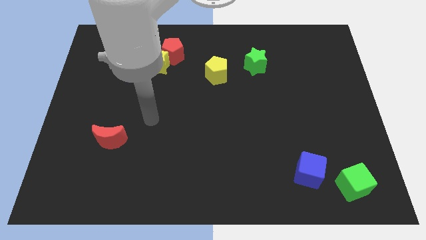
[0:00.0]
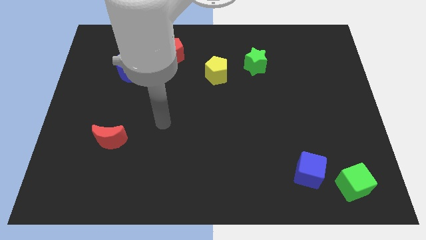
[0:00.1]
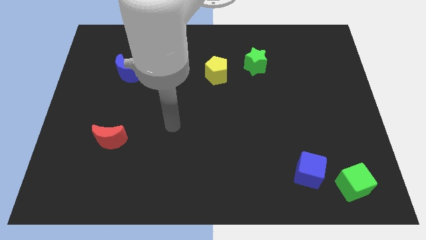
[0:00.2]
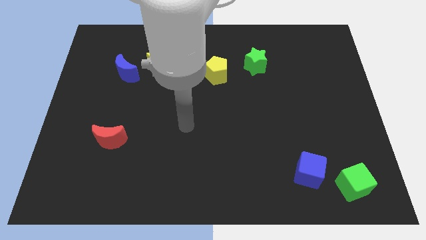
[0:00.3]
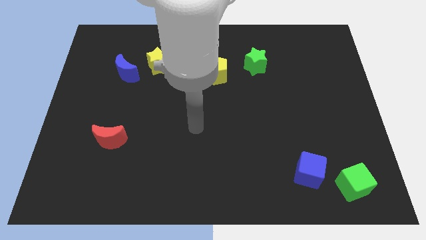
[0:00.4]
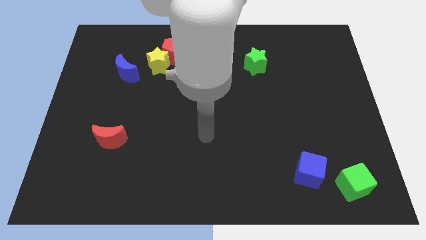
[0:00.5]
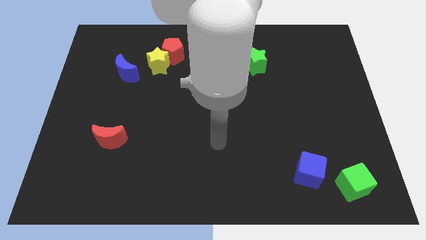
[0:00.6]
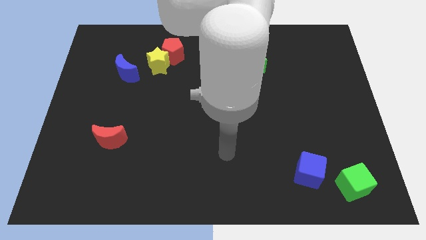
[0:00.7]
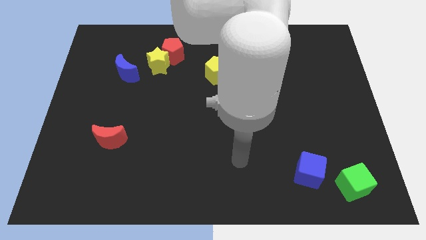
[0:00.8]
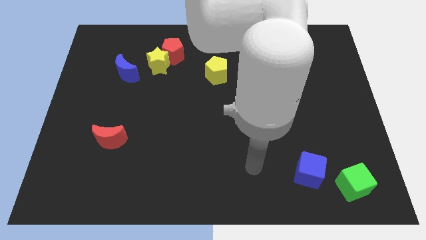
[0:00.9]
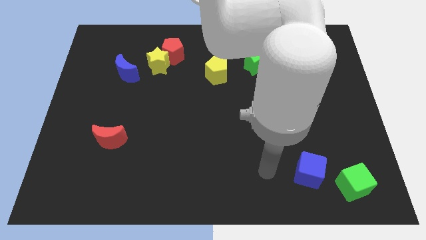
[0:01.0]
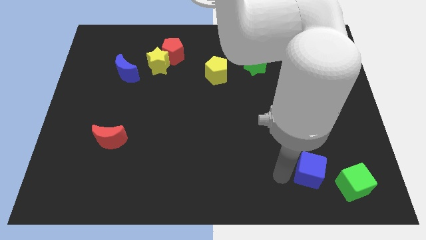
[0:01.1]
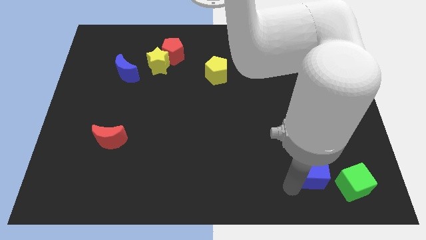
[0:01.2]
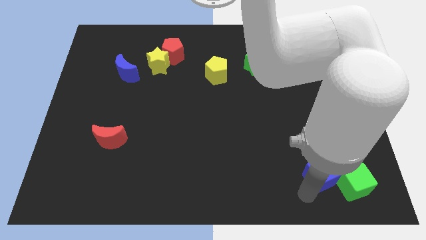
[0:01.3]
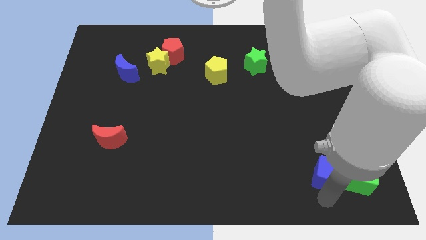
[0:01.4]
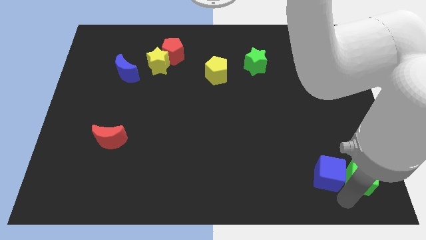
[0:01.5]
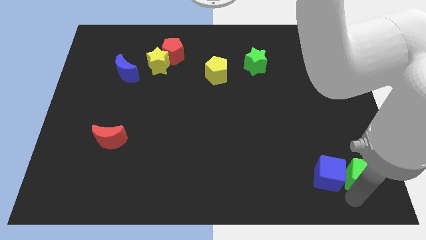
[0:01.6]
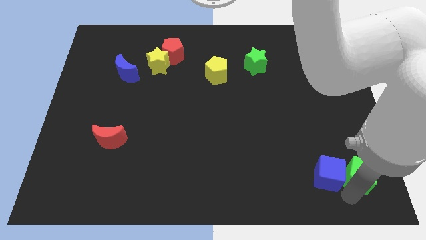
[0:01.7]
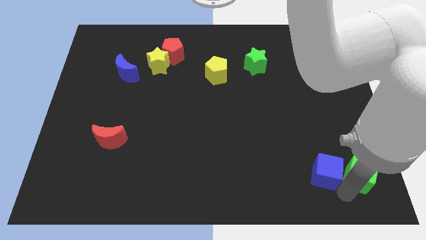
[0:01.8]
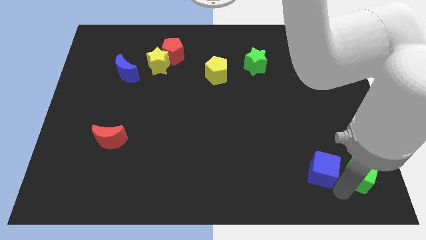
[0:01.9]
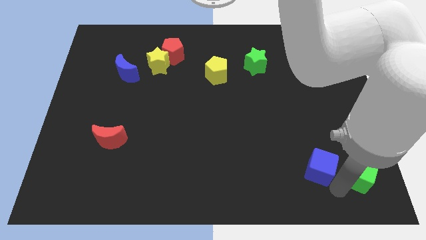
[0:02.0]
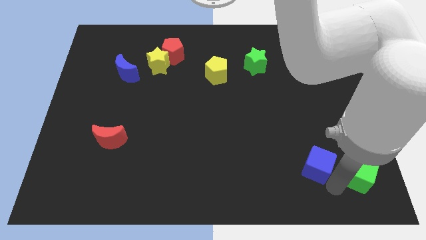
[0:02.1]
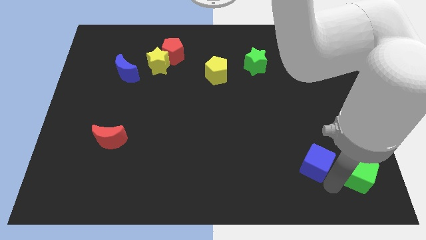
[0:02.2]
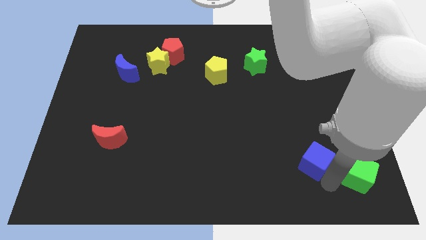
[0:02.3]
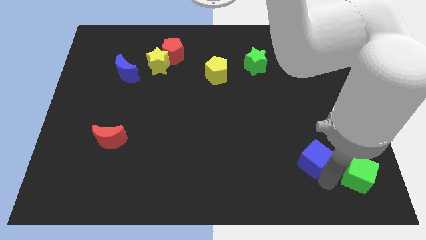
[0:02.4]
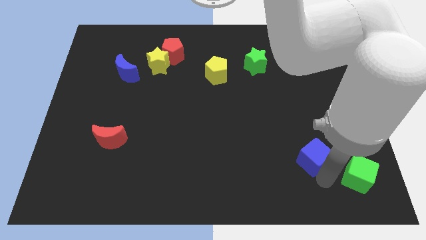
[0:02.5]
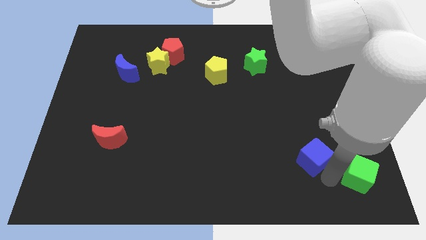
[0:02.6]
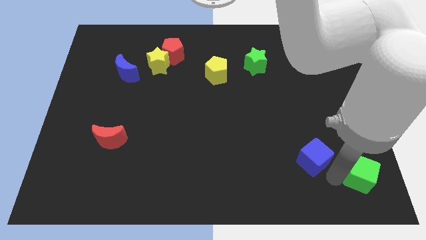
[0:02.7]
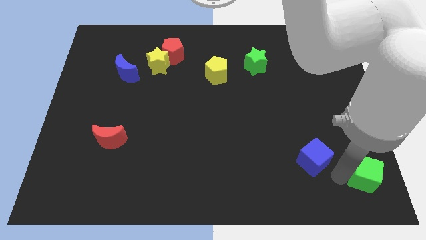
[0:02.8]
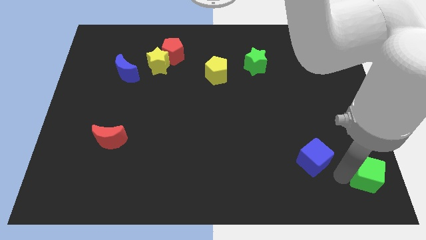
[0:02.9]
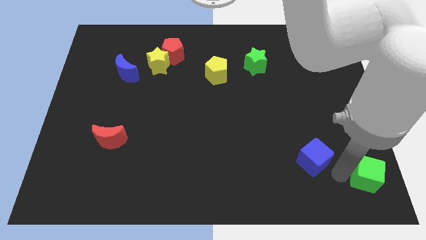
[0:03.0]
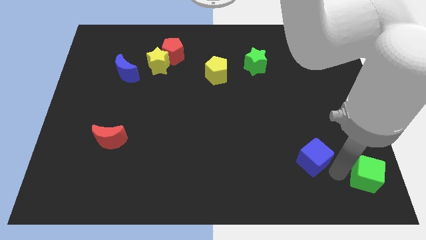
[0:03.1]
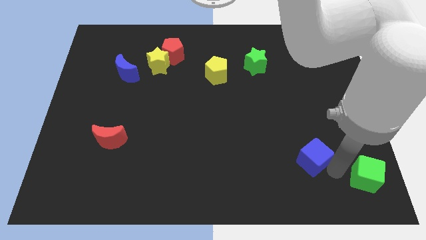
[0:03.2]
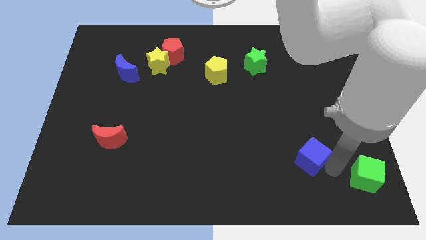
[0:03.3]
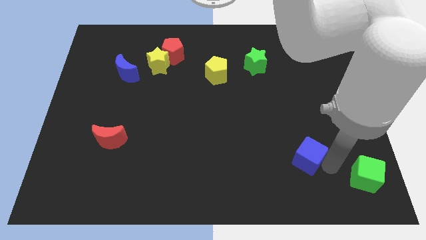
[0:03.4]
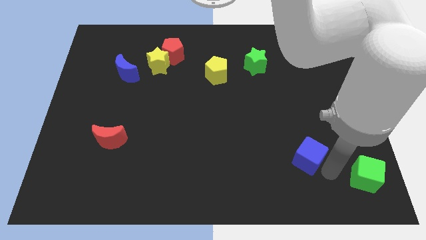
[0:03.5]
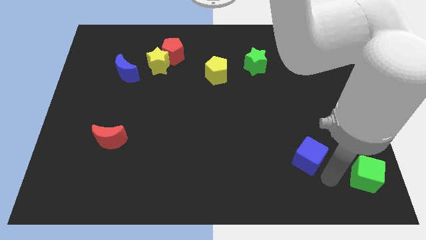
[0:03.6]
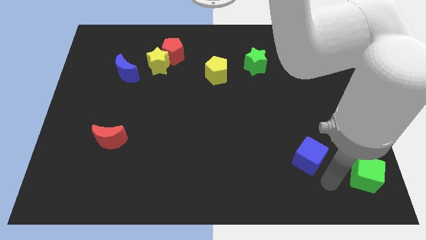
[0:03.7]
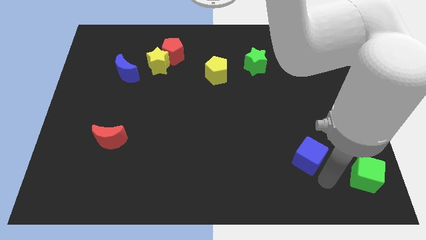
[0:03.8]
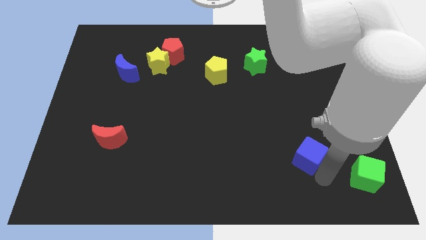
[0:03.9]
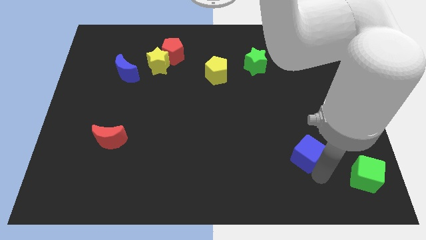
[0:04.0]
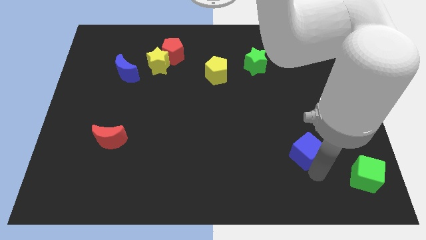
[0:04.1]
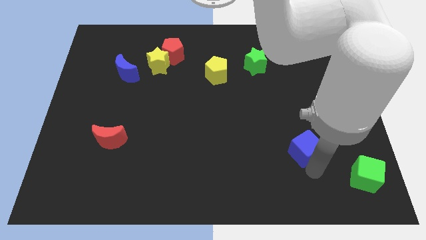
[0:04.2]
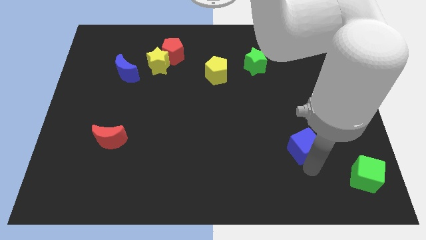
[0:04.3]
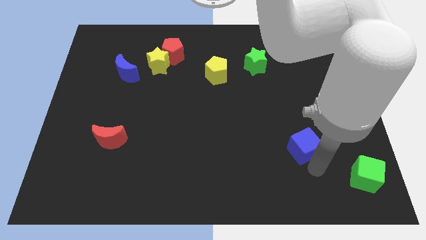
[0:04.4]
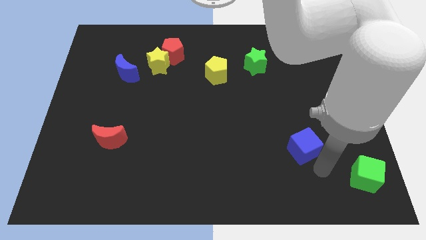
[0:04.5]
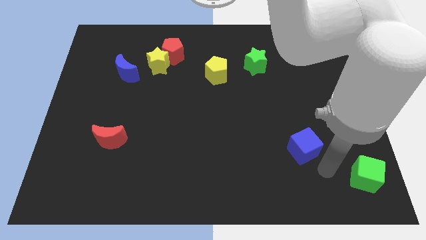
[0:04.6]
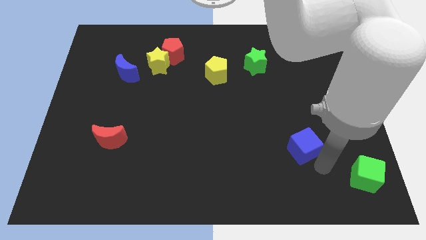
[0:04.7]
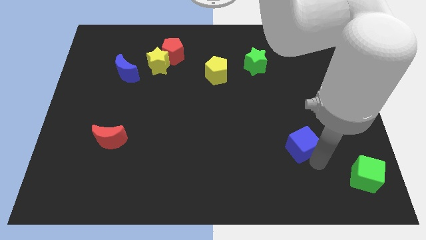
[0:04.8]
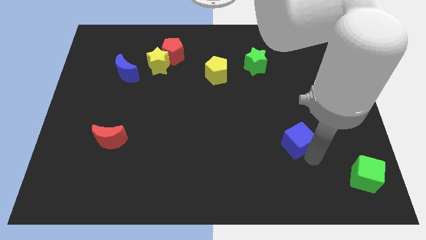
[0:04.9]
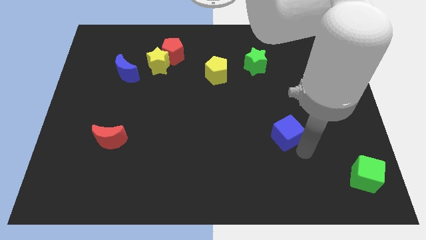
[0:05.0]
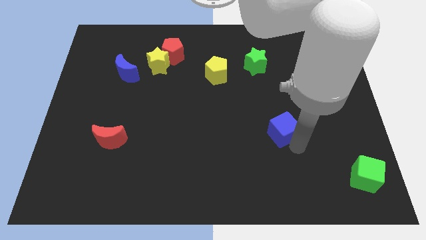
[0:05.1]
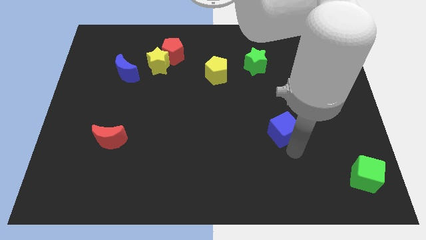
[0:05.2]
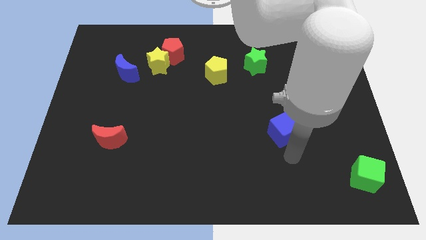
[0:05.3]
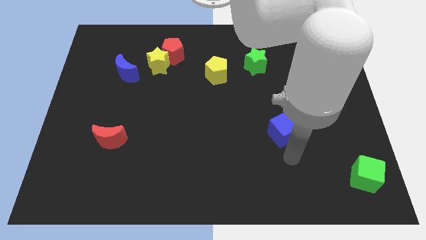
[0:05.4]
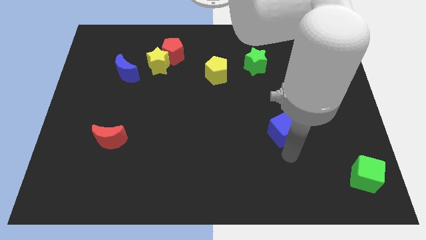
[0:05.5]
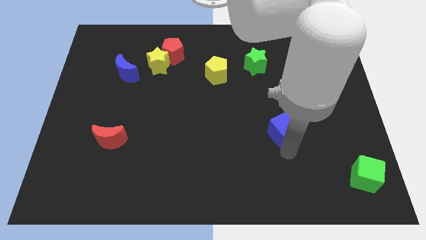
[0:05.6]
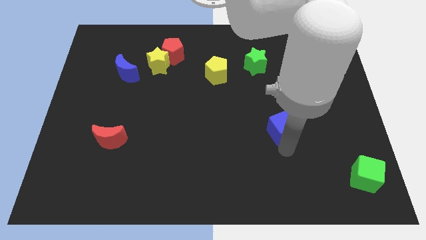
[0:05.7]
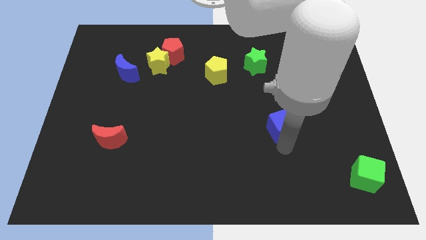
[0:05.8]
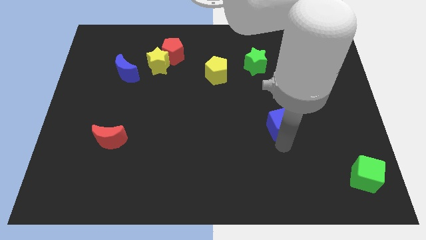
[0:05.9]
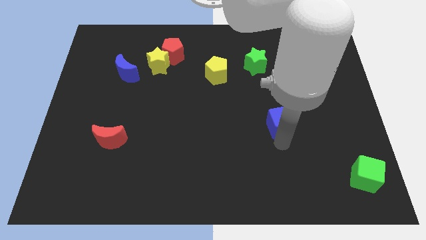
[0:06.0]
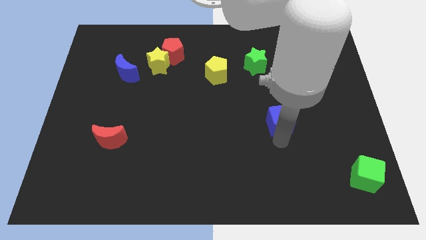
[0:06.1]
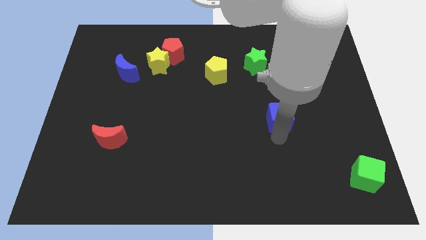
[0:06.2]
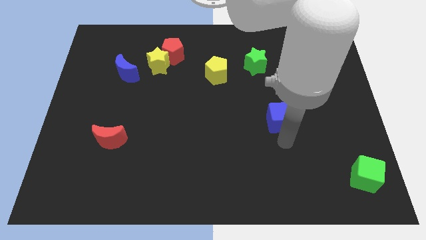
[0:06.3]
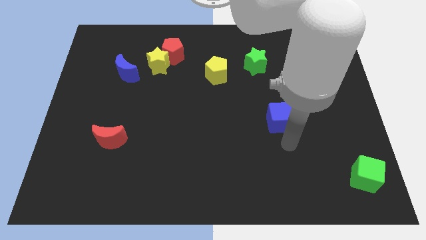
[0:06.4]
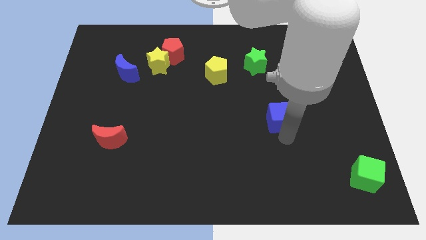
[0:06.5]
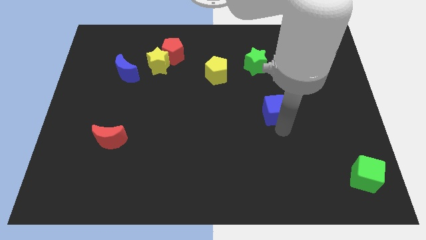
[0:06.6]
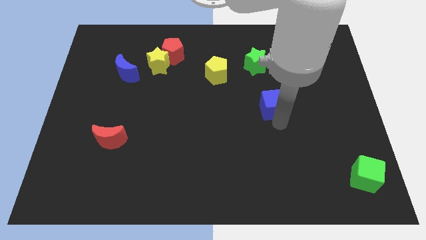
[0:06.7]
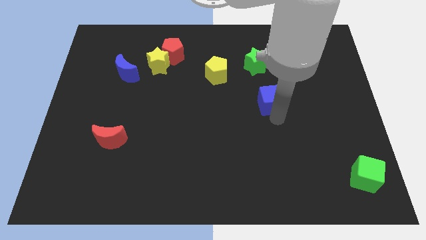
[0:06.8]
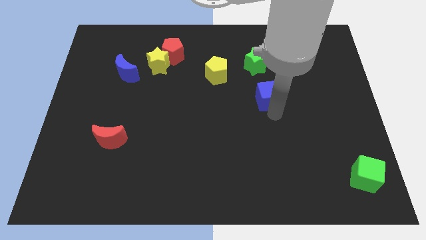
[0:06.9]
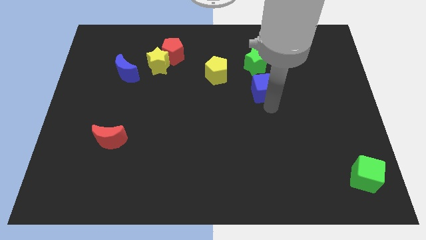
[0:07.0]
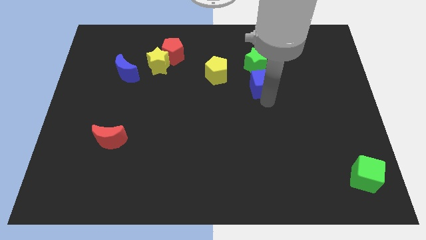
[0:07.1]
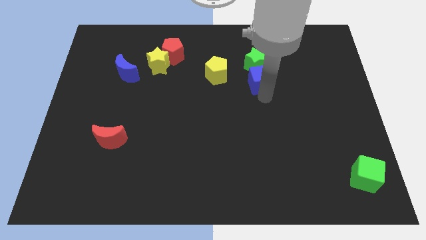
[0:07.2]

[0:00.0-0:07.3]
push the blue cube next to the green star
